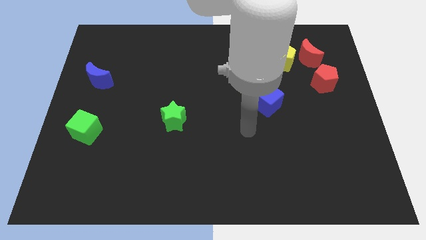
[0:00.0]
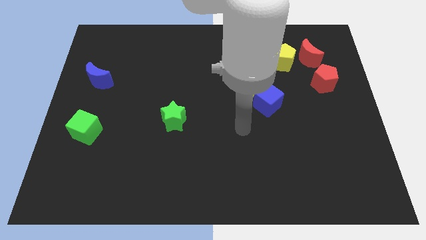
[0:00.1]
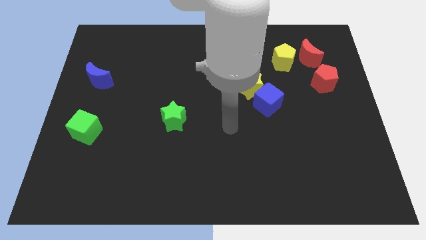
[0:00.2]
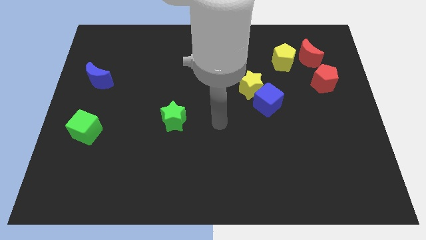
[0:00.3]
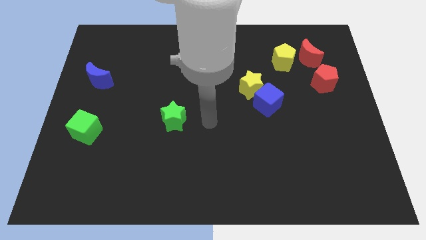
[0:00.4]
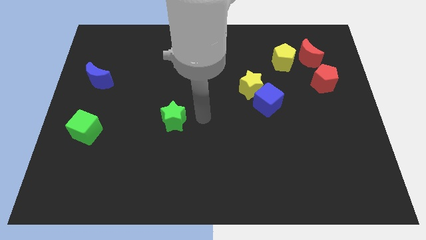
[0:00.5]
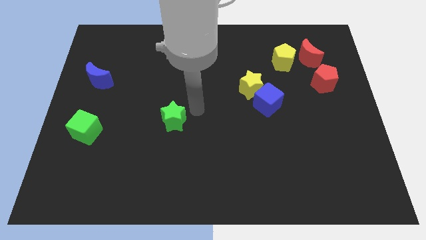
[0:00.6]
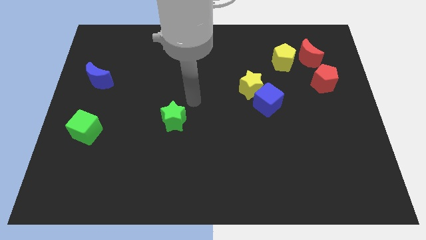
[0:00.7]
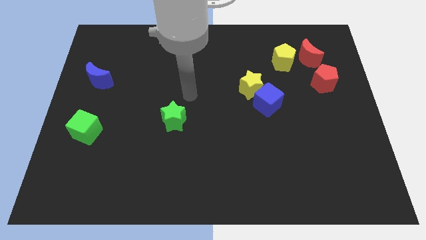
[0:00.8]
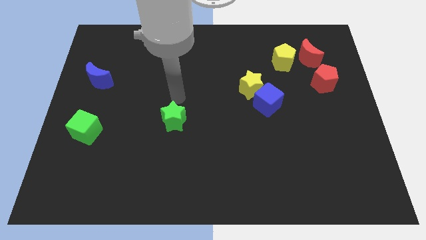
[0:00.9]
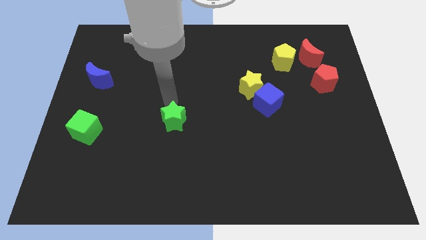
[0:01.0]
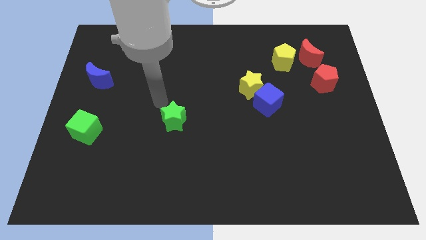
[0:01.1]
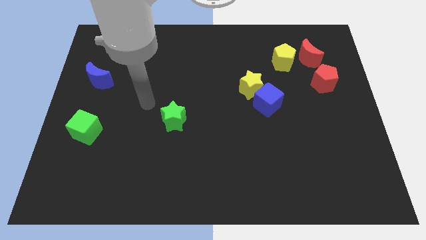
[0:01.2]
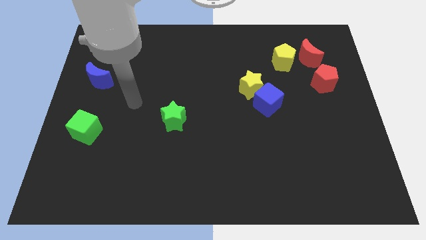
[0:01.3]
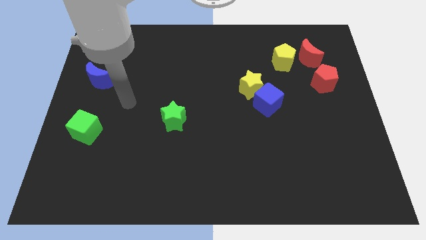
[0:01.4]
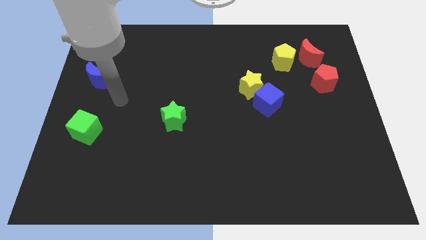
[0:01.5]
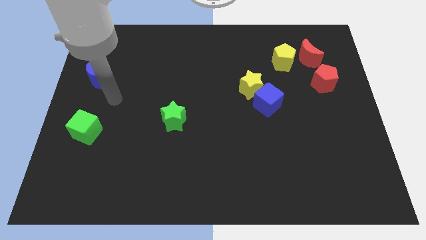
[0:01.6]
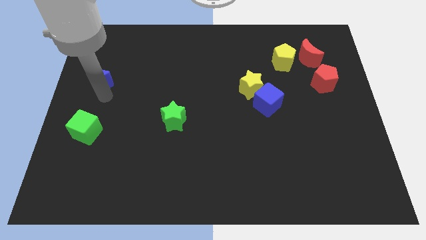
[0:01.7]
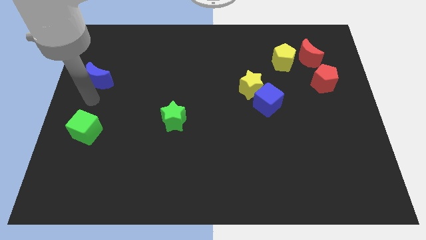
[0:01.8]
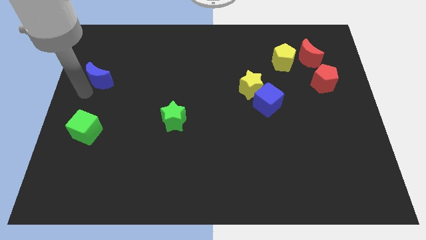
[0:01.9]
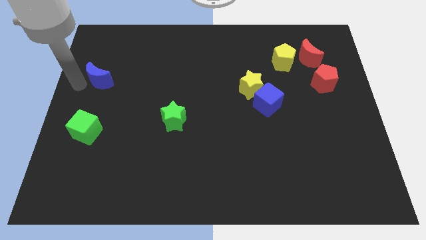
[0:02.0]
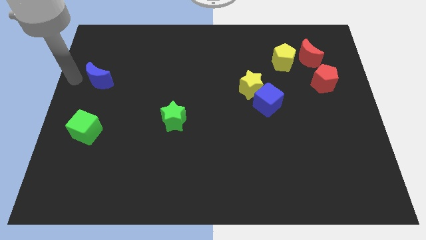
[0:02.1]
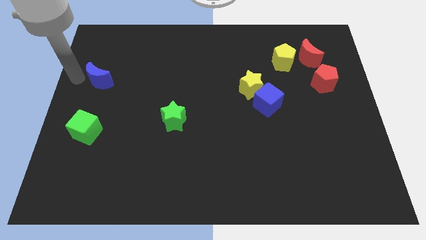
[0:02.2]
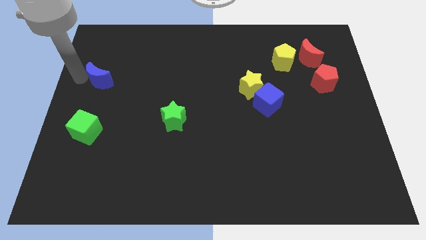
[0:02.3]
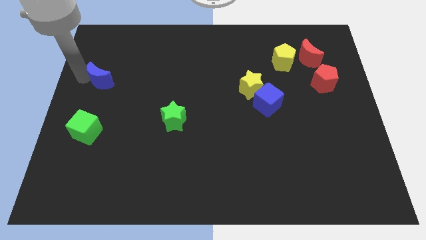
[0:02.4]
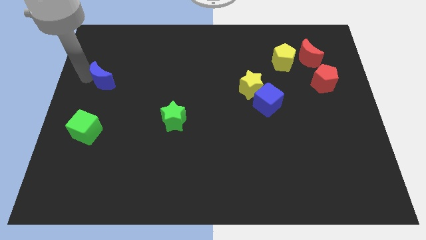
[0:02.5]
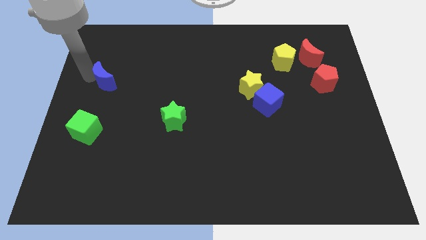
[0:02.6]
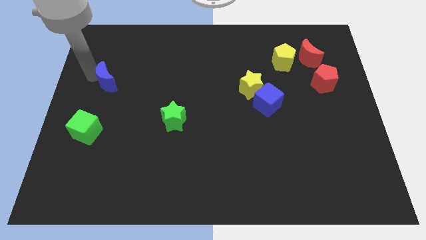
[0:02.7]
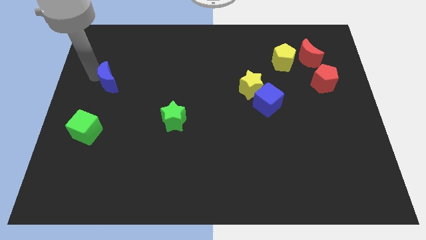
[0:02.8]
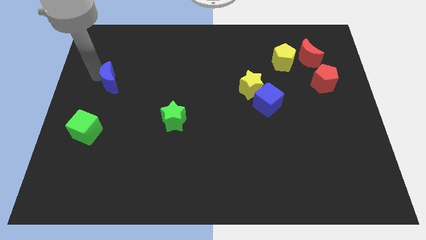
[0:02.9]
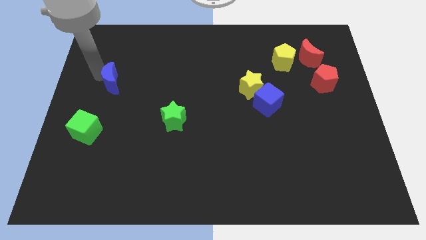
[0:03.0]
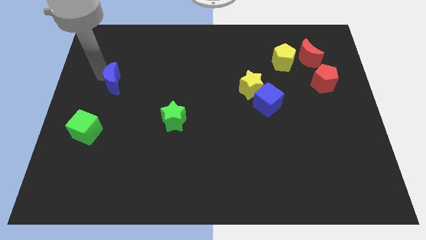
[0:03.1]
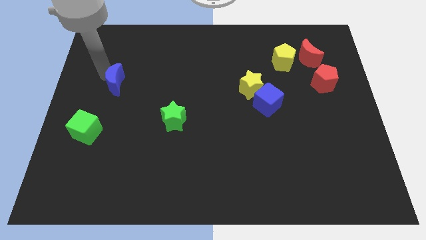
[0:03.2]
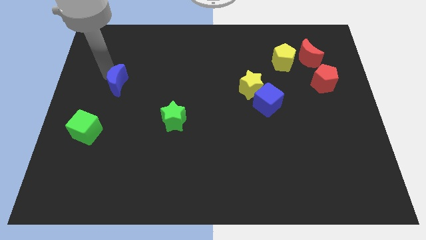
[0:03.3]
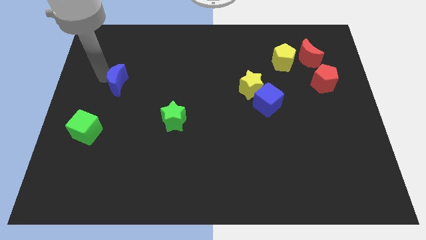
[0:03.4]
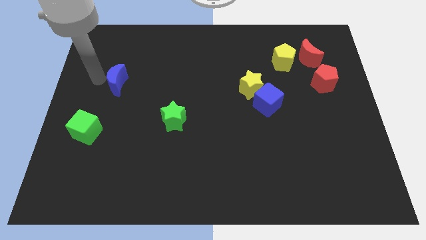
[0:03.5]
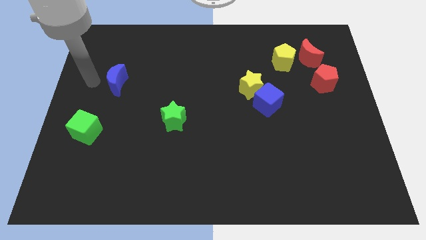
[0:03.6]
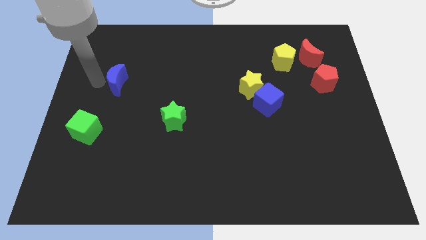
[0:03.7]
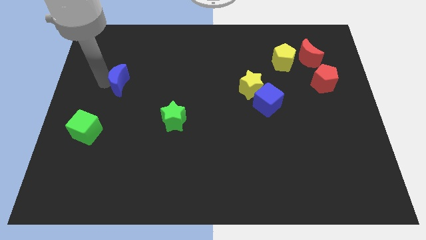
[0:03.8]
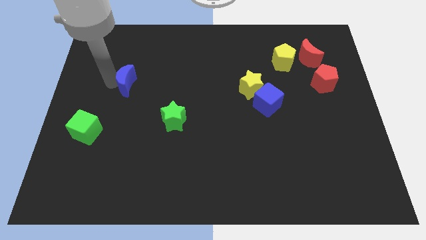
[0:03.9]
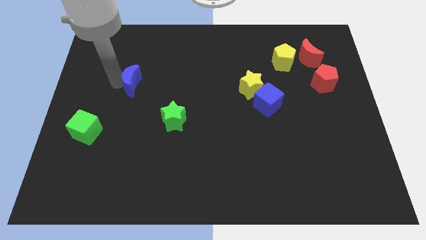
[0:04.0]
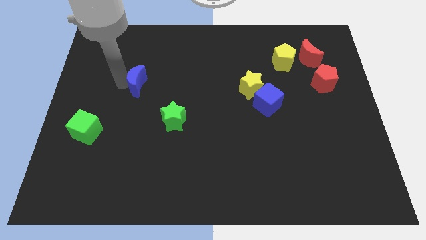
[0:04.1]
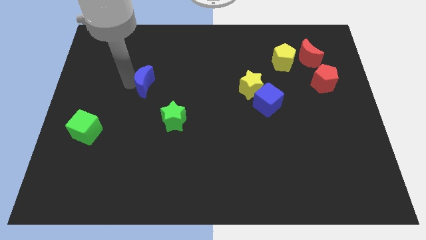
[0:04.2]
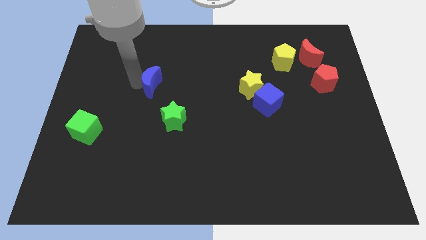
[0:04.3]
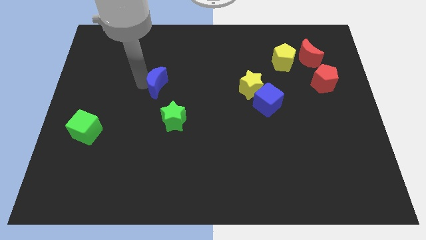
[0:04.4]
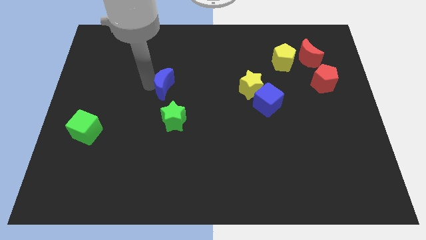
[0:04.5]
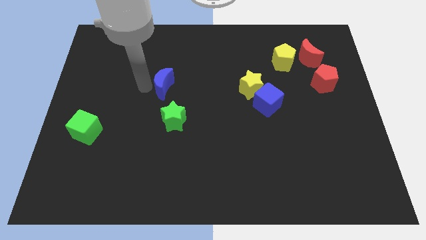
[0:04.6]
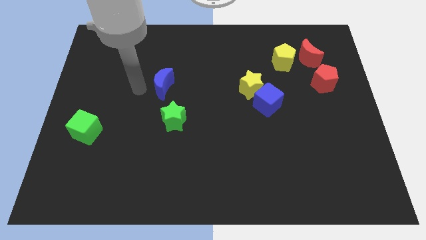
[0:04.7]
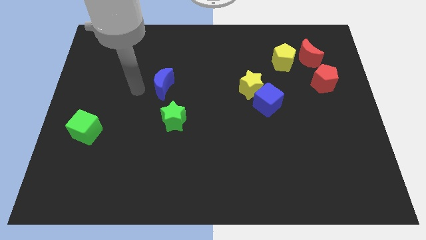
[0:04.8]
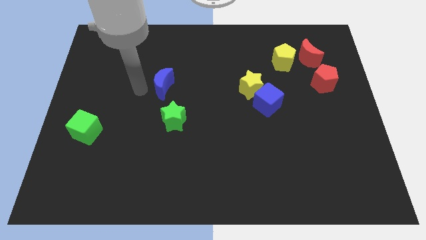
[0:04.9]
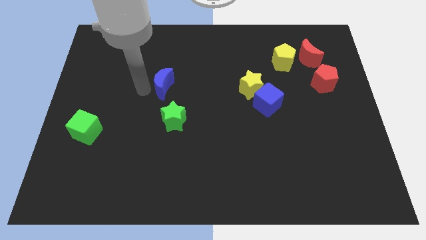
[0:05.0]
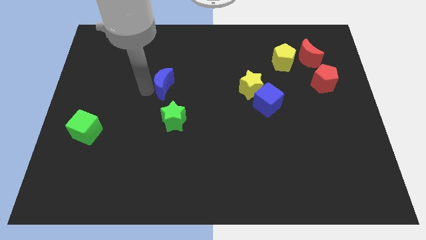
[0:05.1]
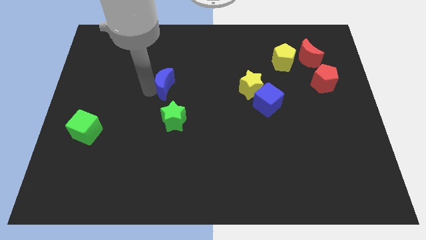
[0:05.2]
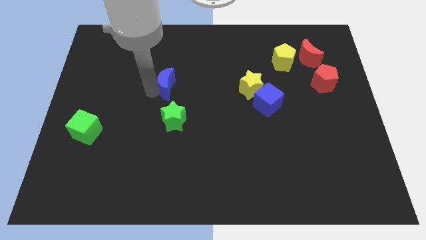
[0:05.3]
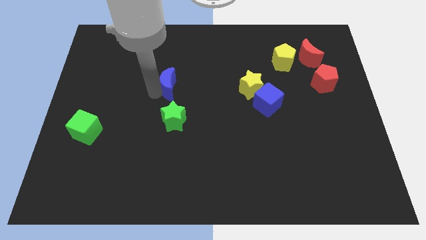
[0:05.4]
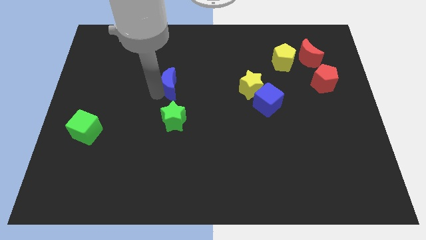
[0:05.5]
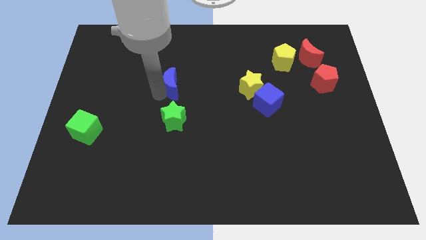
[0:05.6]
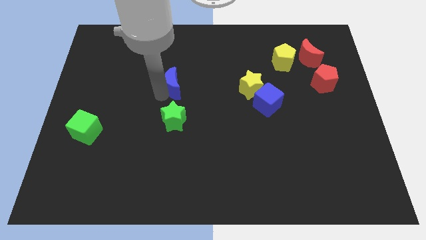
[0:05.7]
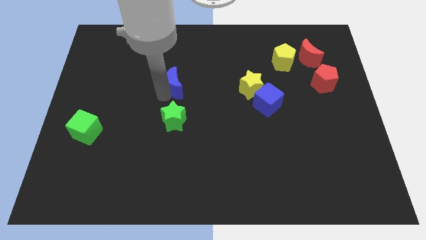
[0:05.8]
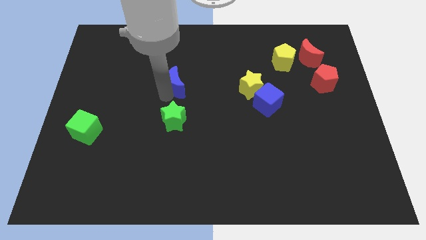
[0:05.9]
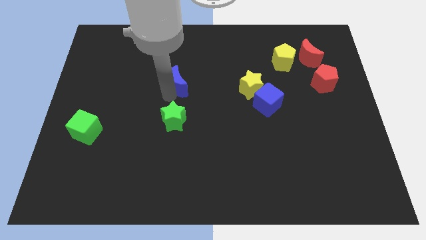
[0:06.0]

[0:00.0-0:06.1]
push the blue moon right

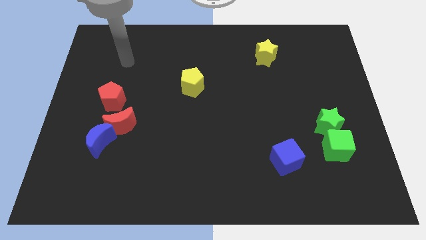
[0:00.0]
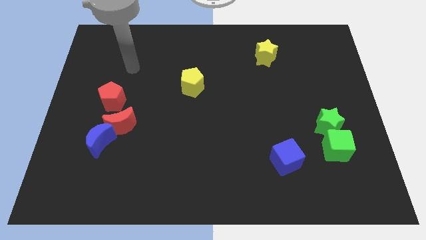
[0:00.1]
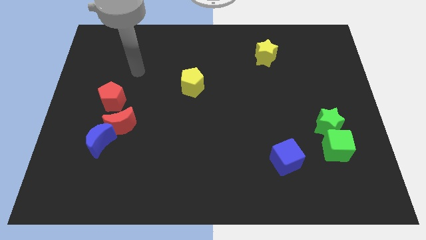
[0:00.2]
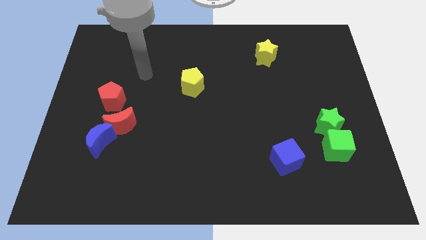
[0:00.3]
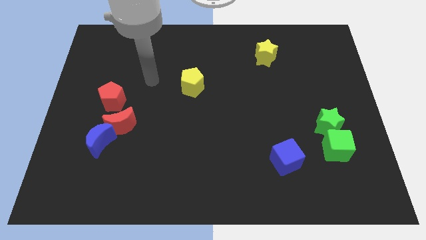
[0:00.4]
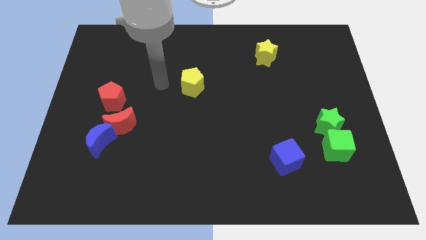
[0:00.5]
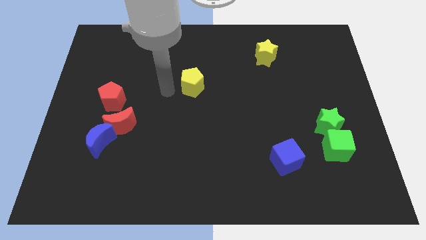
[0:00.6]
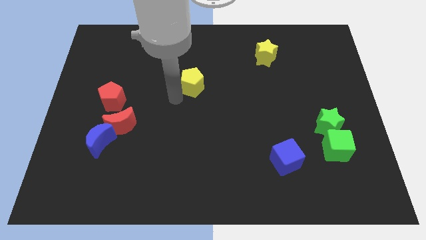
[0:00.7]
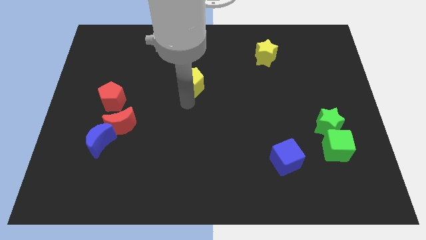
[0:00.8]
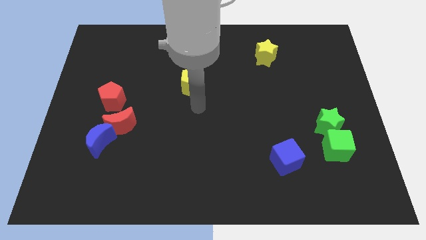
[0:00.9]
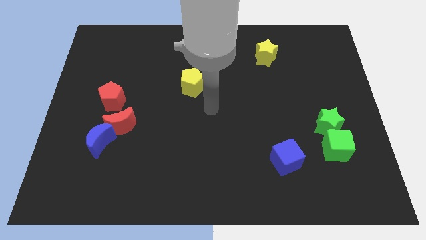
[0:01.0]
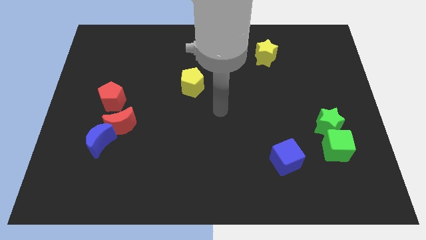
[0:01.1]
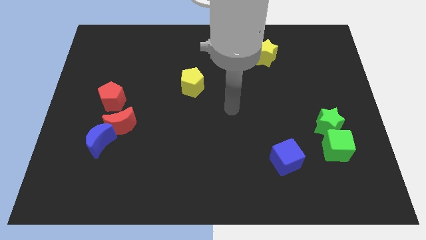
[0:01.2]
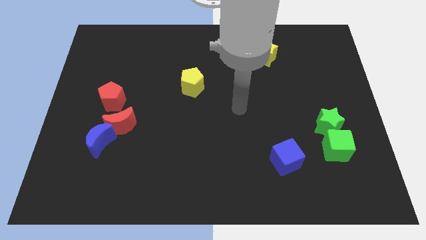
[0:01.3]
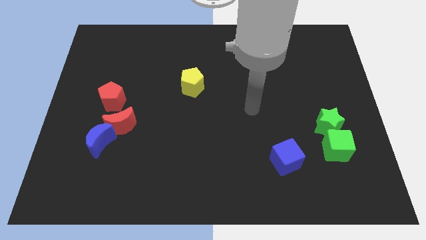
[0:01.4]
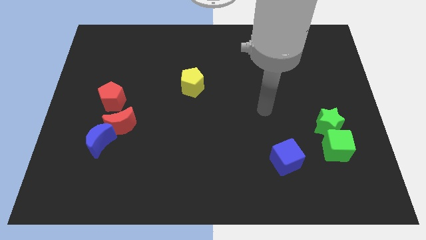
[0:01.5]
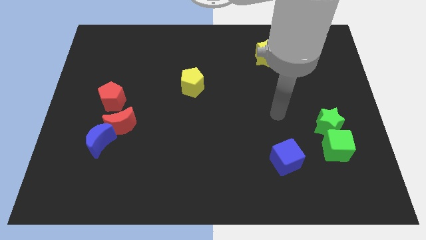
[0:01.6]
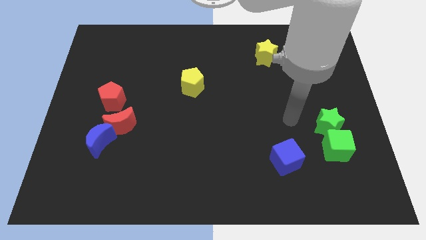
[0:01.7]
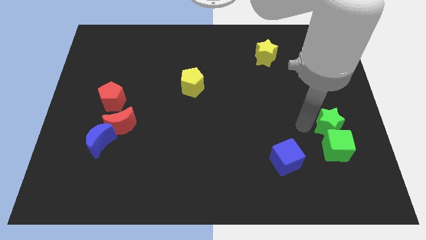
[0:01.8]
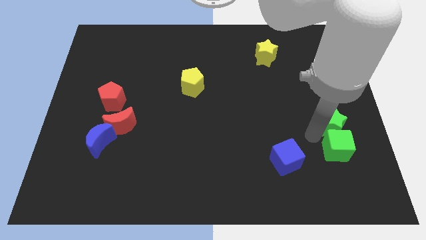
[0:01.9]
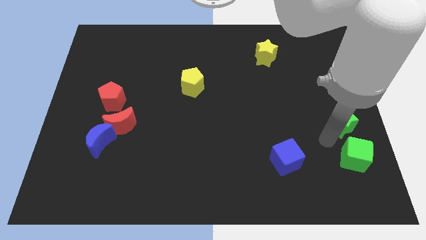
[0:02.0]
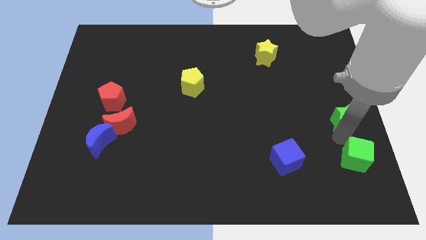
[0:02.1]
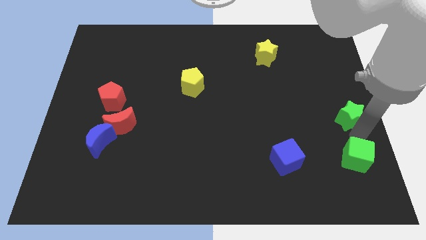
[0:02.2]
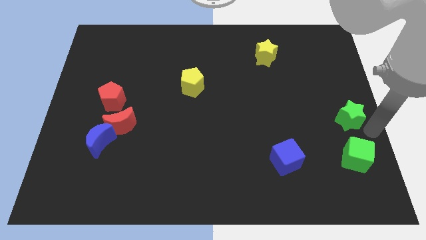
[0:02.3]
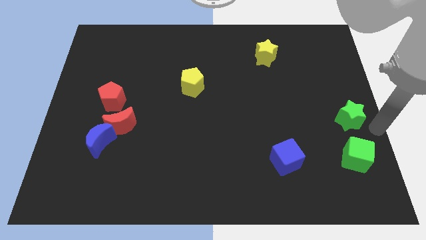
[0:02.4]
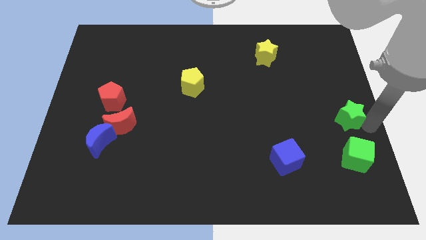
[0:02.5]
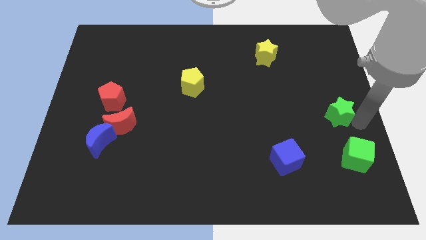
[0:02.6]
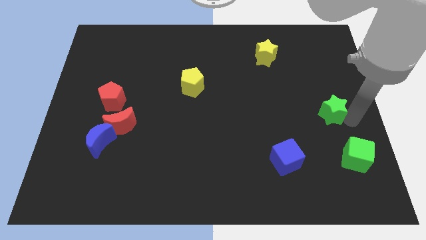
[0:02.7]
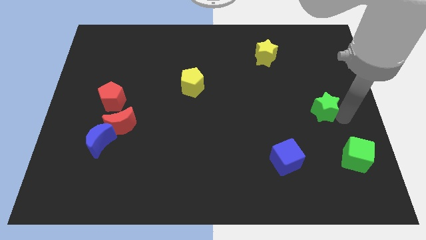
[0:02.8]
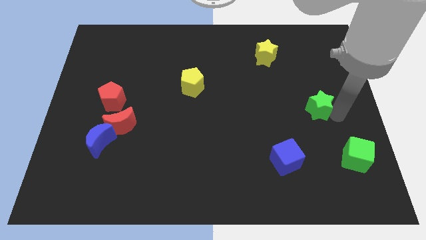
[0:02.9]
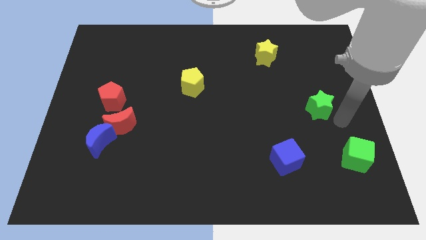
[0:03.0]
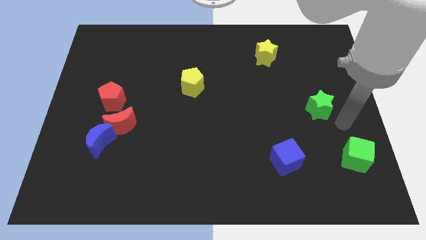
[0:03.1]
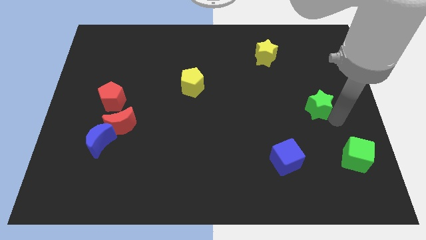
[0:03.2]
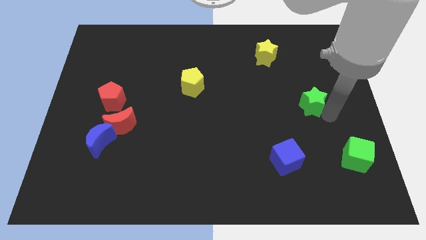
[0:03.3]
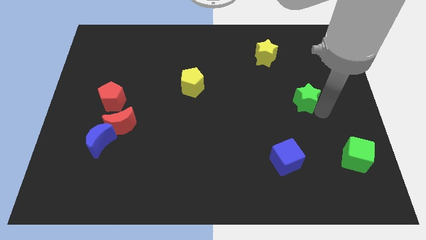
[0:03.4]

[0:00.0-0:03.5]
slightly move the green star diagonally up and to the left
